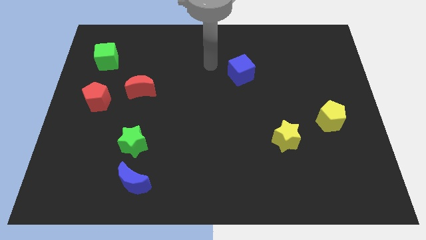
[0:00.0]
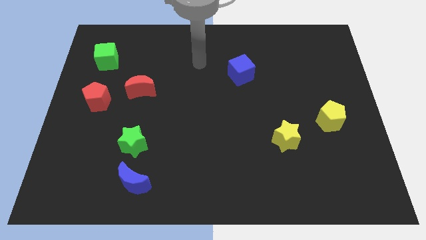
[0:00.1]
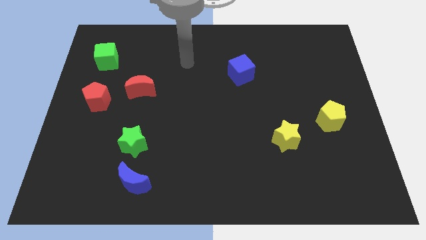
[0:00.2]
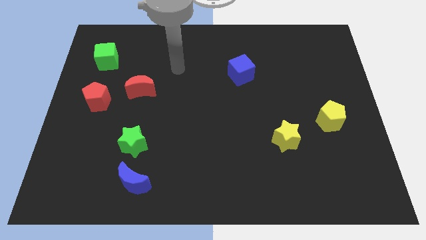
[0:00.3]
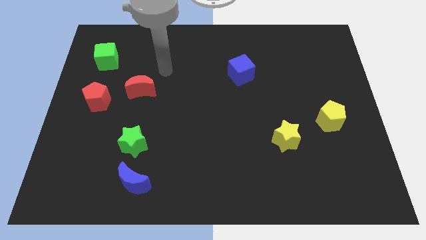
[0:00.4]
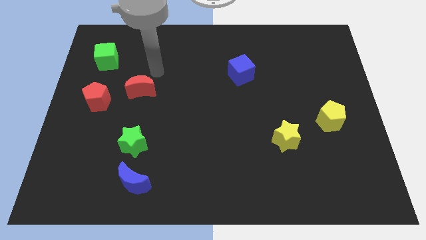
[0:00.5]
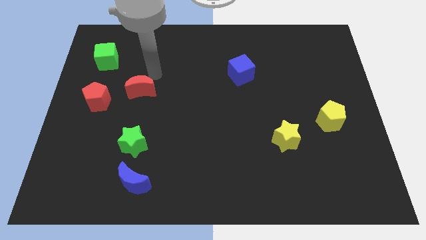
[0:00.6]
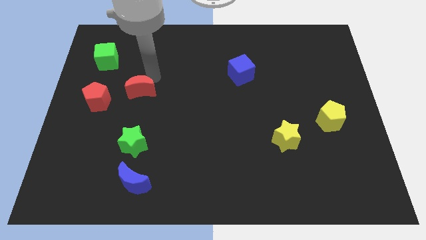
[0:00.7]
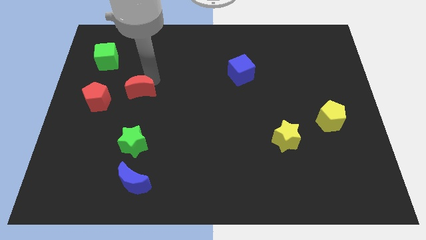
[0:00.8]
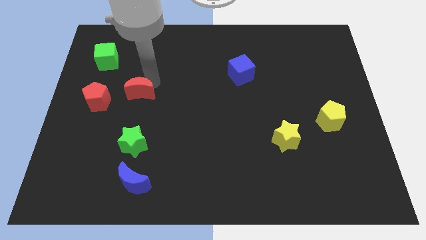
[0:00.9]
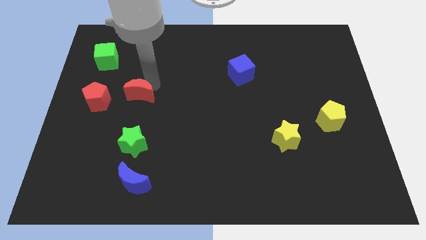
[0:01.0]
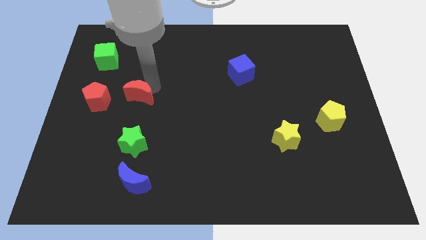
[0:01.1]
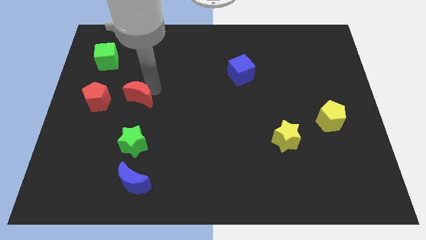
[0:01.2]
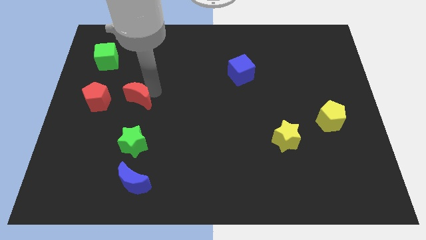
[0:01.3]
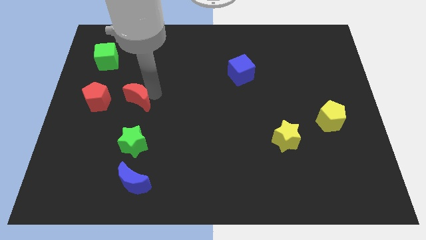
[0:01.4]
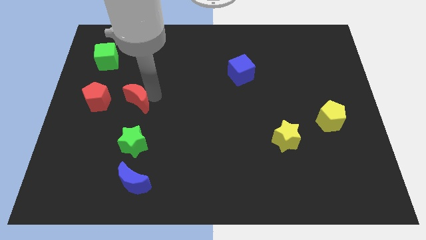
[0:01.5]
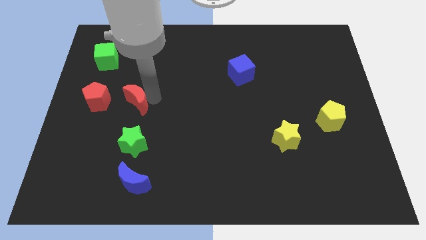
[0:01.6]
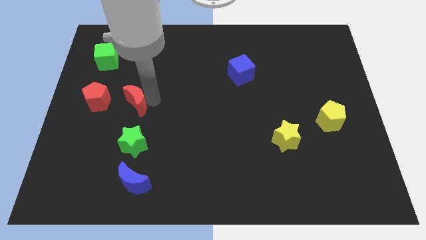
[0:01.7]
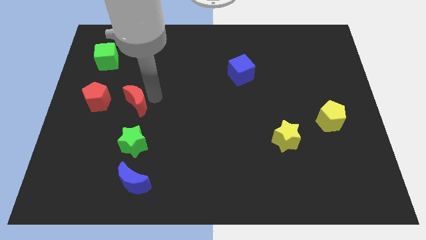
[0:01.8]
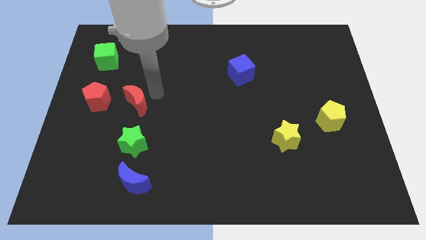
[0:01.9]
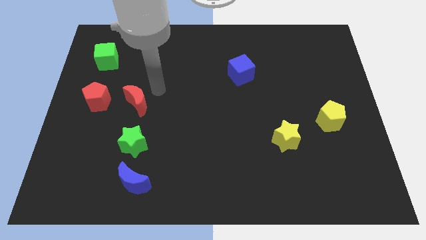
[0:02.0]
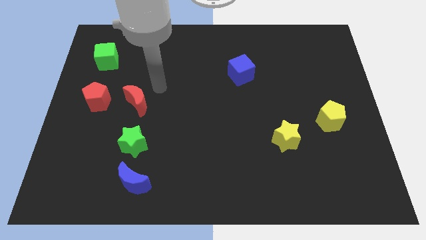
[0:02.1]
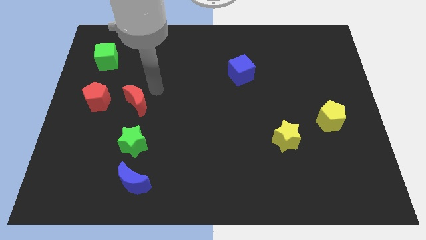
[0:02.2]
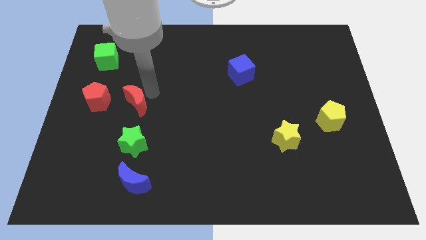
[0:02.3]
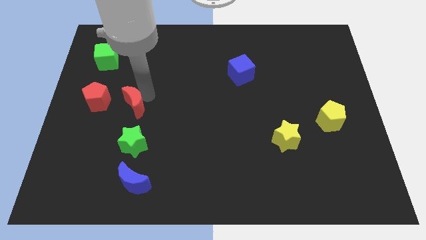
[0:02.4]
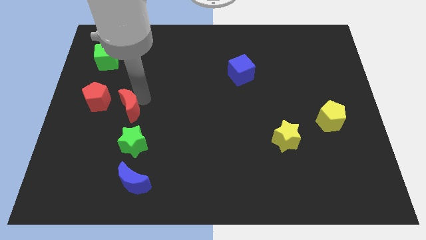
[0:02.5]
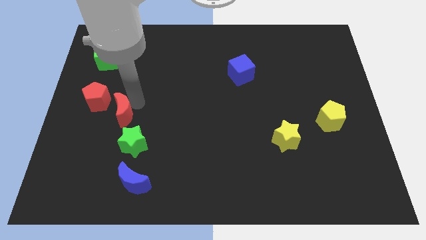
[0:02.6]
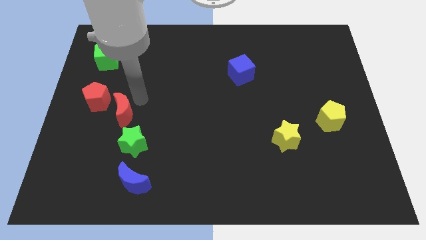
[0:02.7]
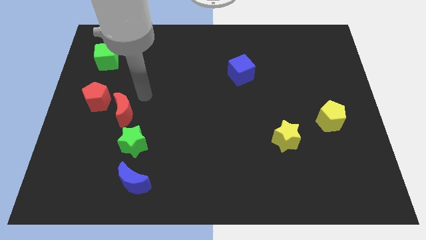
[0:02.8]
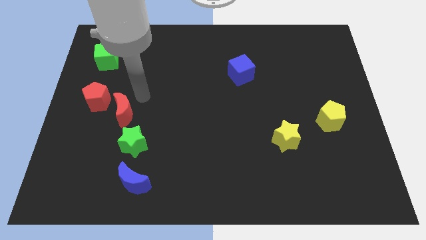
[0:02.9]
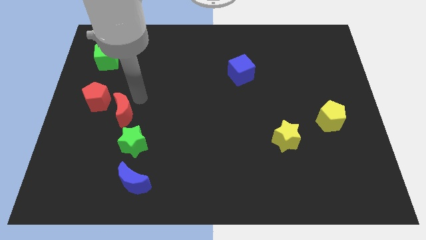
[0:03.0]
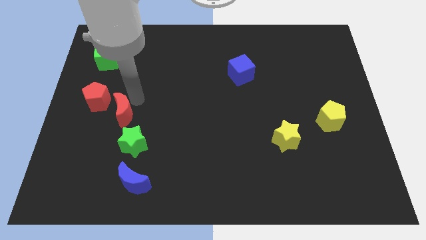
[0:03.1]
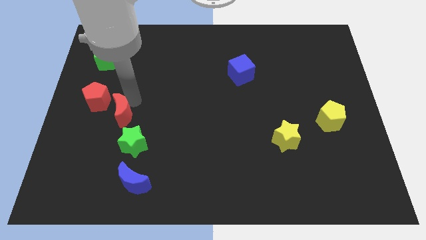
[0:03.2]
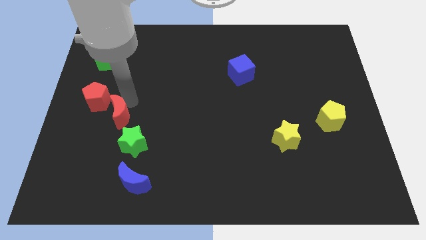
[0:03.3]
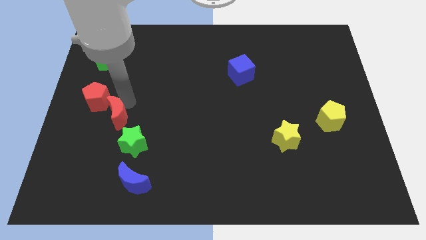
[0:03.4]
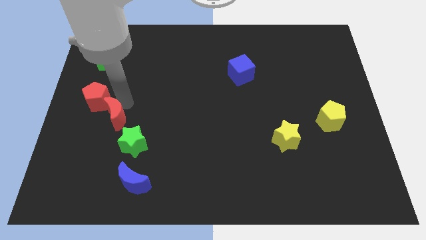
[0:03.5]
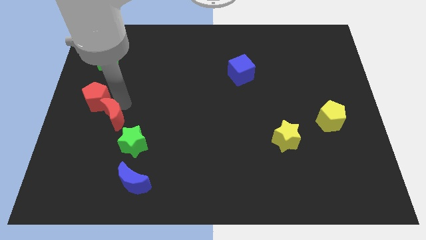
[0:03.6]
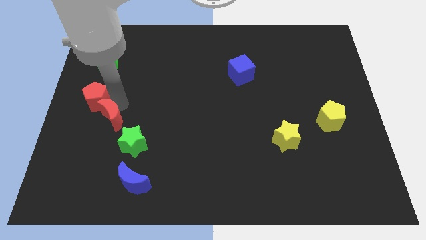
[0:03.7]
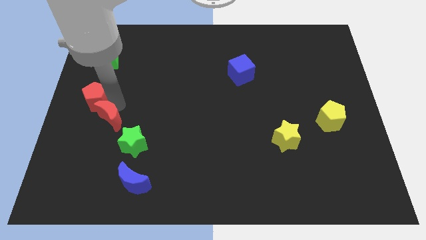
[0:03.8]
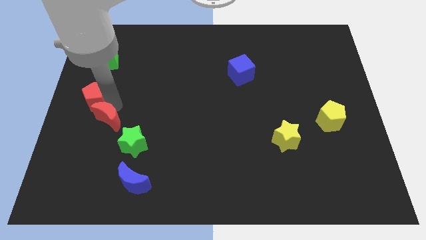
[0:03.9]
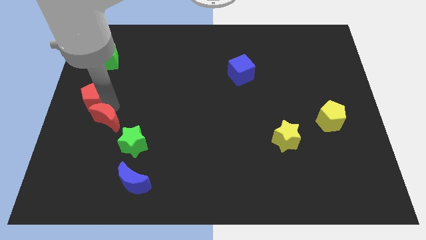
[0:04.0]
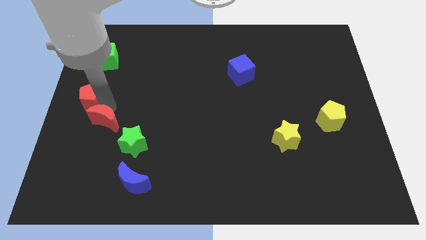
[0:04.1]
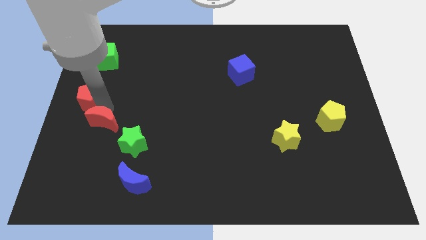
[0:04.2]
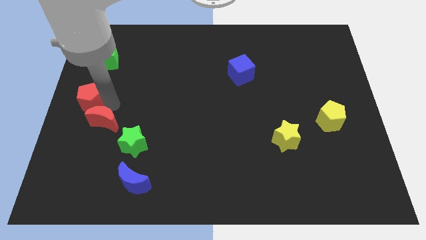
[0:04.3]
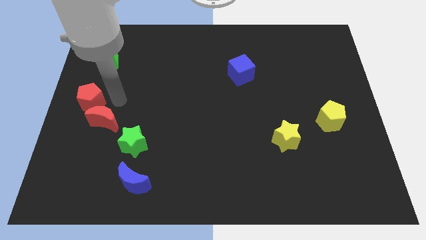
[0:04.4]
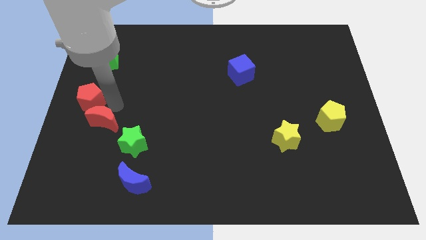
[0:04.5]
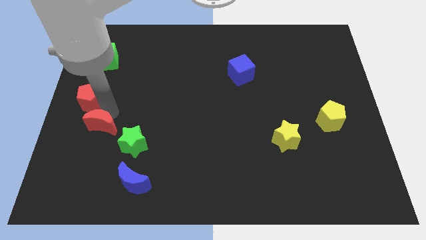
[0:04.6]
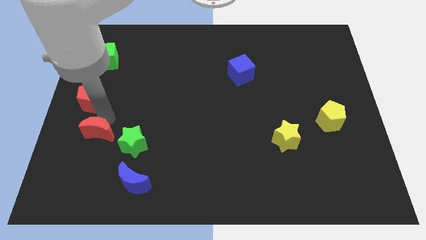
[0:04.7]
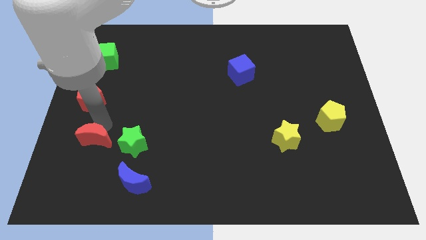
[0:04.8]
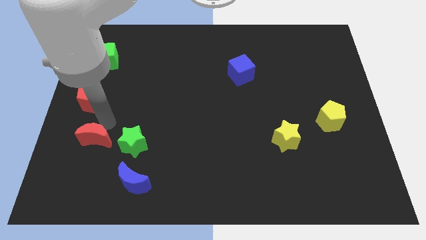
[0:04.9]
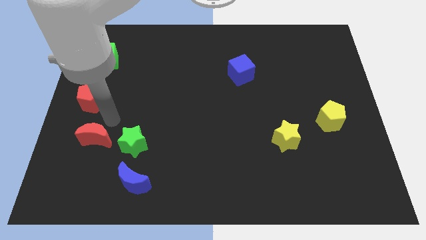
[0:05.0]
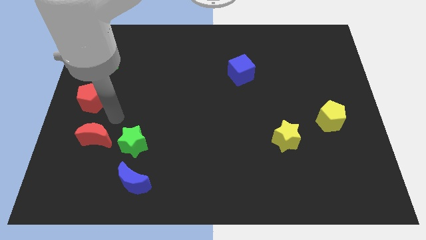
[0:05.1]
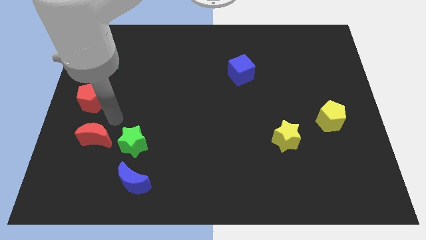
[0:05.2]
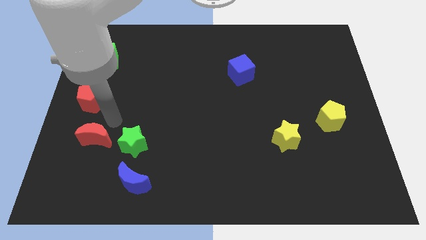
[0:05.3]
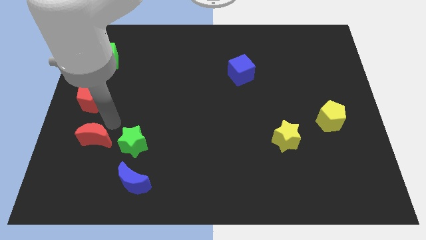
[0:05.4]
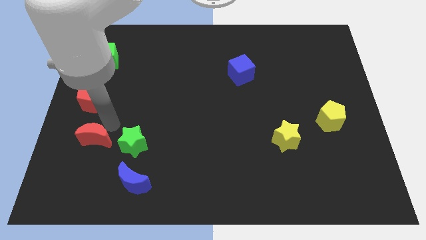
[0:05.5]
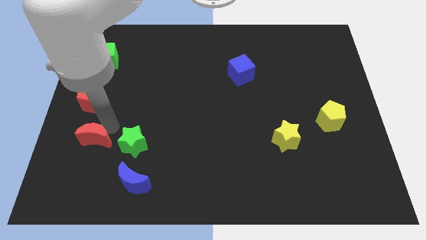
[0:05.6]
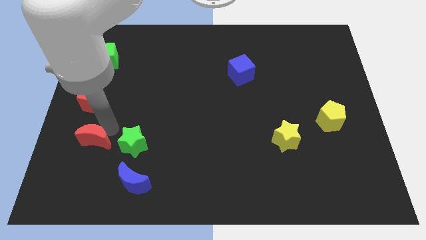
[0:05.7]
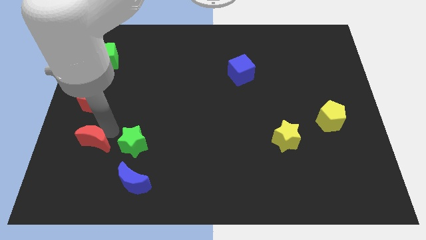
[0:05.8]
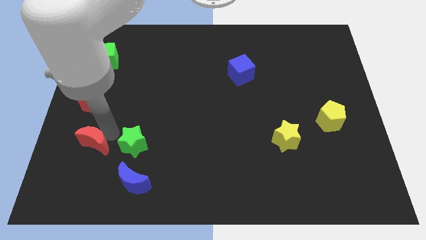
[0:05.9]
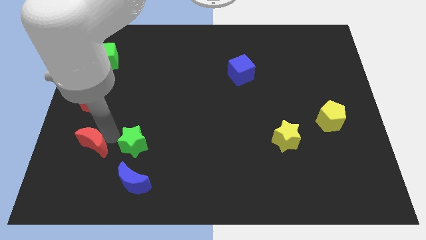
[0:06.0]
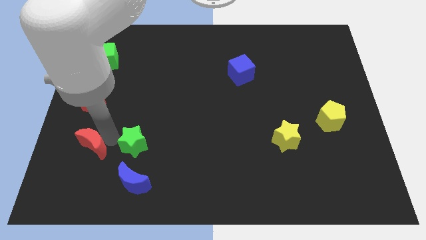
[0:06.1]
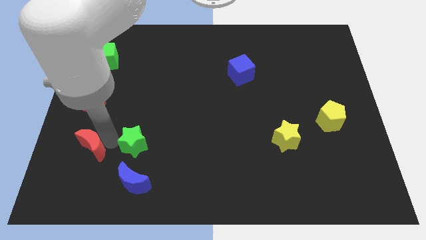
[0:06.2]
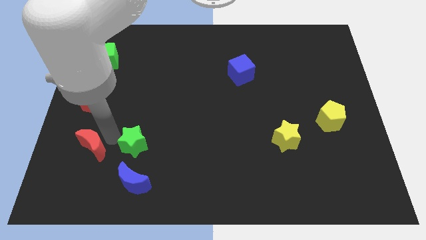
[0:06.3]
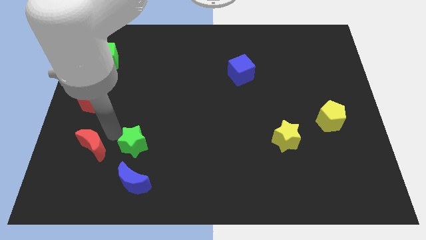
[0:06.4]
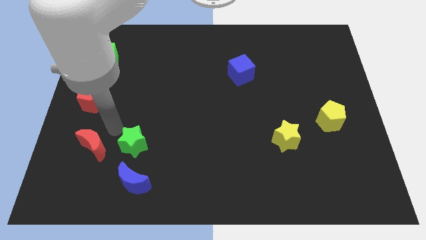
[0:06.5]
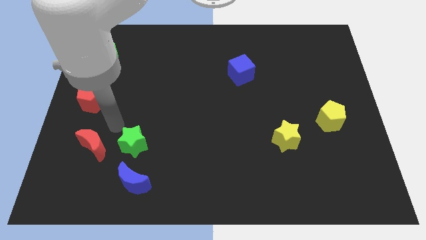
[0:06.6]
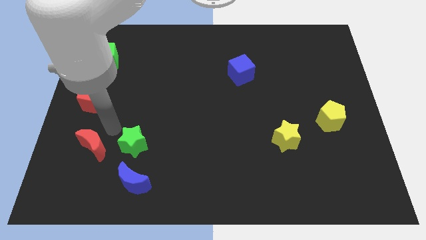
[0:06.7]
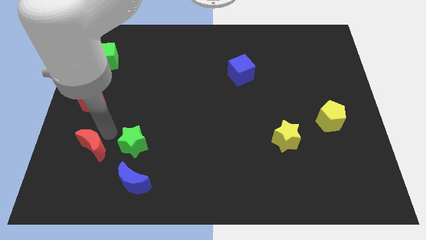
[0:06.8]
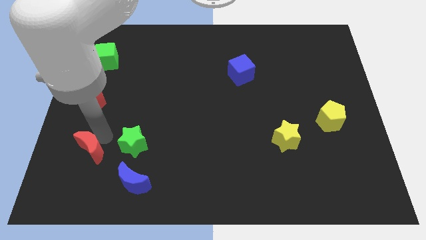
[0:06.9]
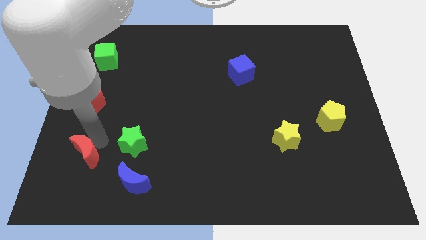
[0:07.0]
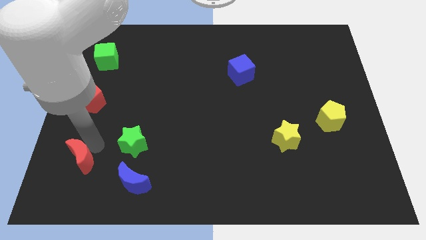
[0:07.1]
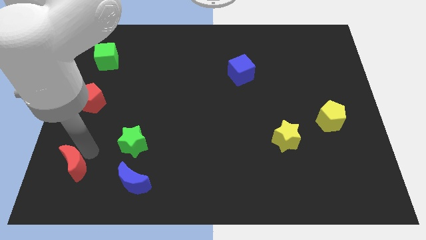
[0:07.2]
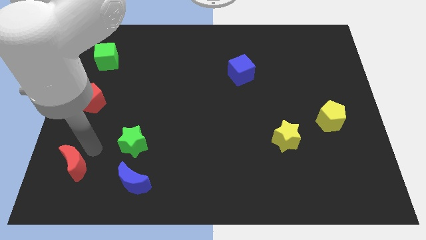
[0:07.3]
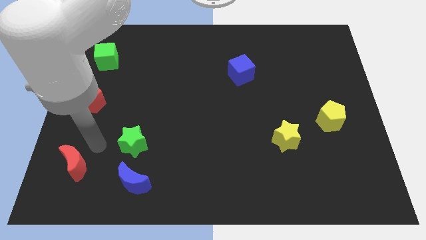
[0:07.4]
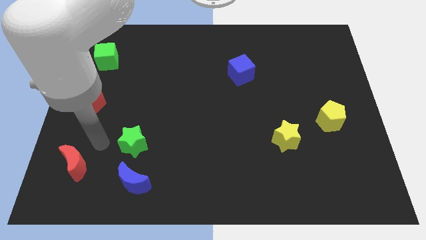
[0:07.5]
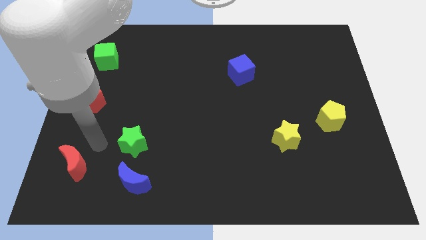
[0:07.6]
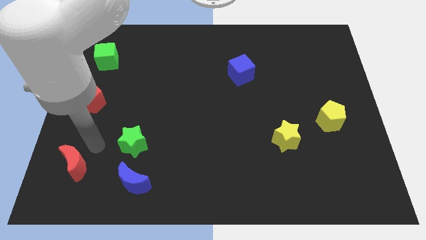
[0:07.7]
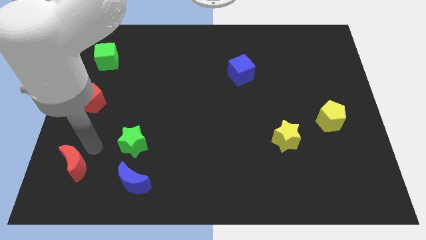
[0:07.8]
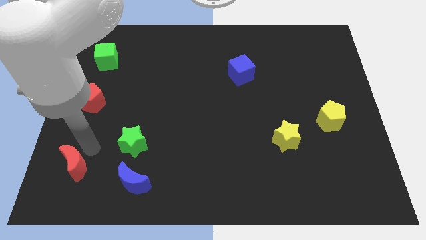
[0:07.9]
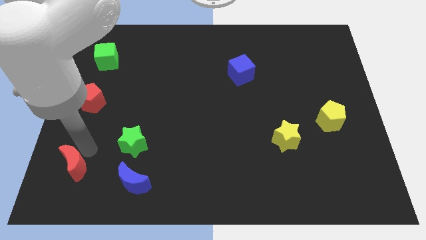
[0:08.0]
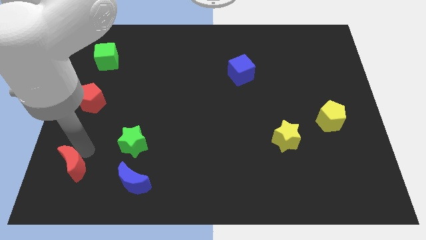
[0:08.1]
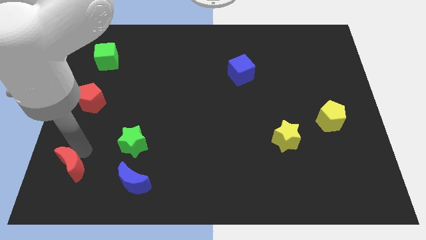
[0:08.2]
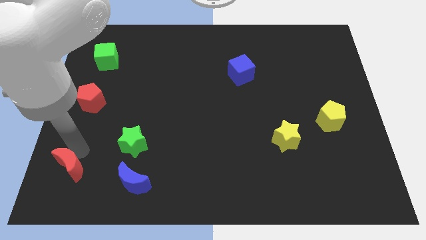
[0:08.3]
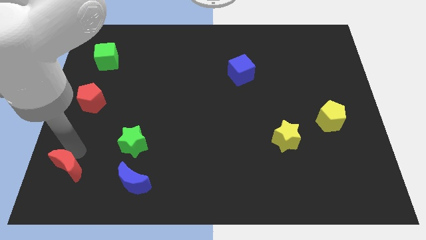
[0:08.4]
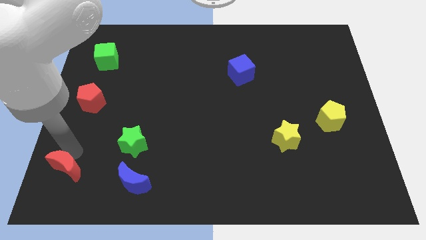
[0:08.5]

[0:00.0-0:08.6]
put the red moon to the bottom left of the board
